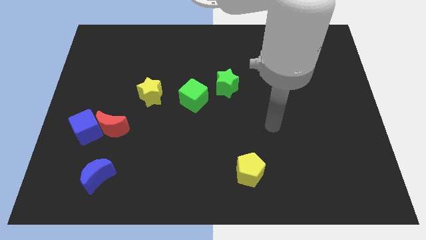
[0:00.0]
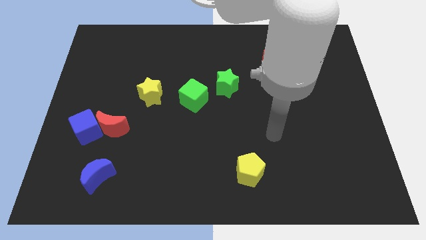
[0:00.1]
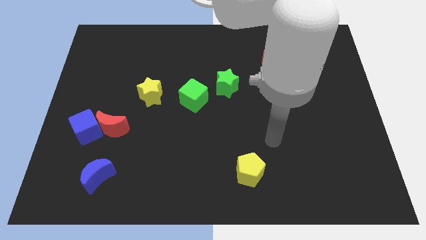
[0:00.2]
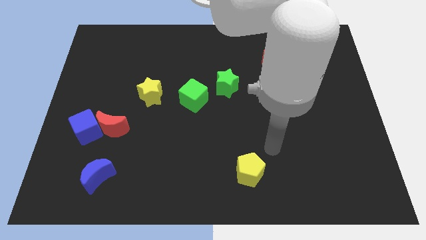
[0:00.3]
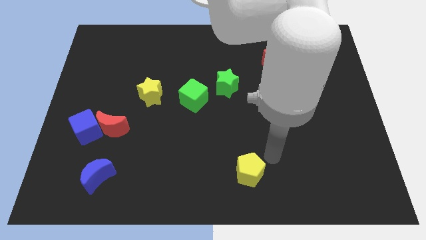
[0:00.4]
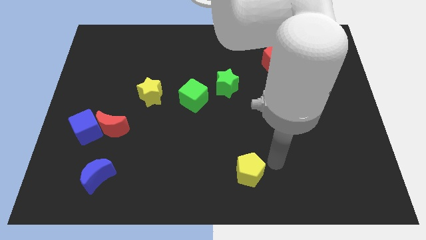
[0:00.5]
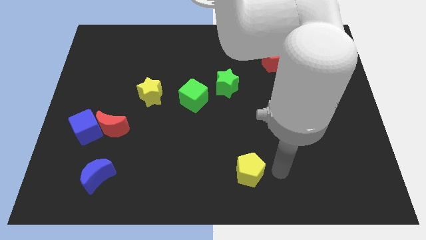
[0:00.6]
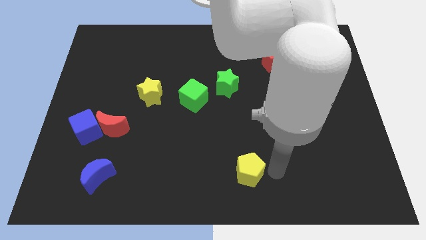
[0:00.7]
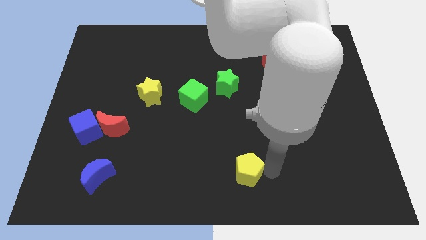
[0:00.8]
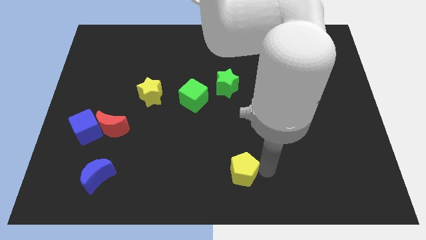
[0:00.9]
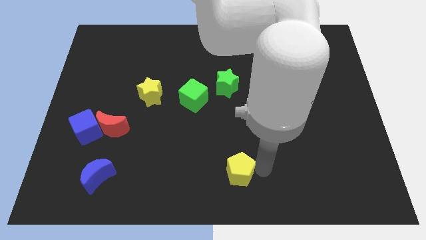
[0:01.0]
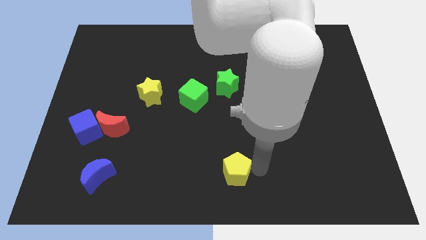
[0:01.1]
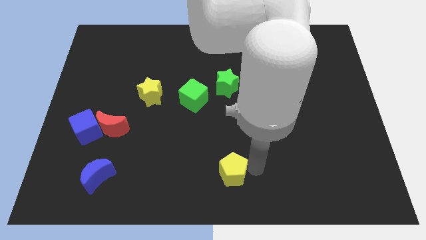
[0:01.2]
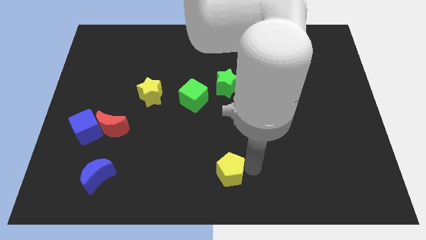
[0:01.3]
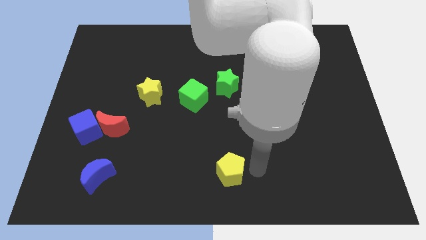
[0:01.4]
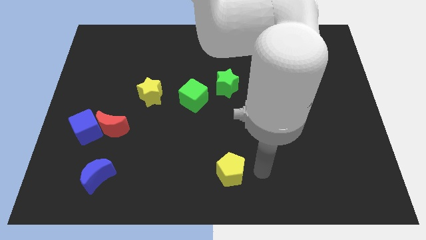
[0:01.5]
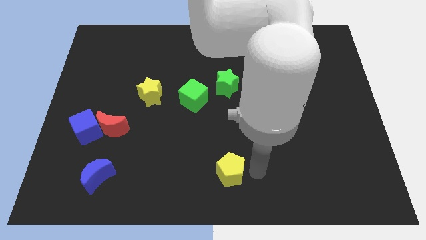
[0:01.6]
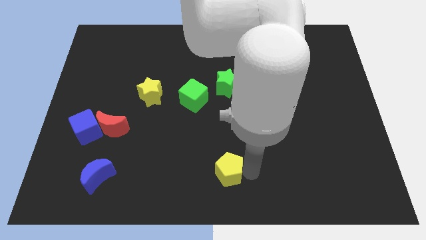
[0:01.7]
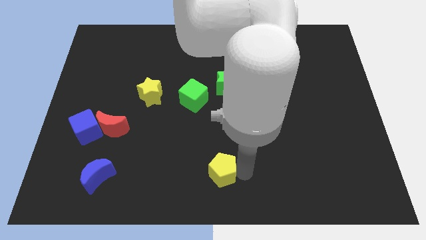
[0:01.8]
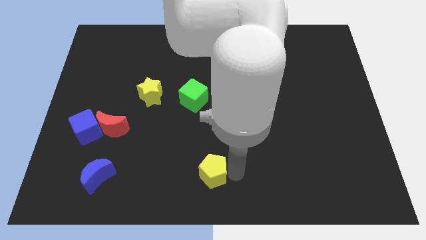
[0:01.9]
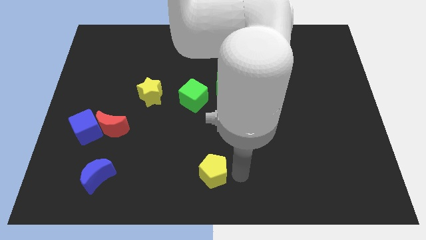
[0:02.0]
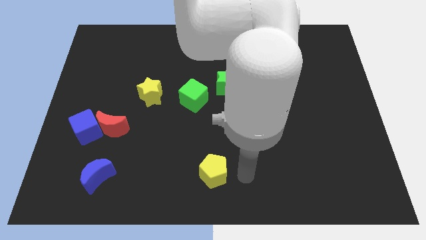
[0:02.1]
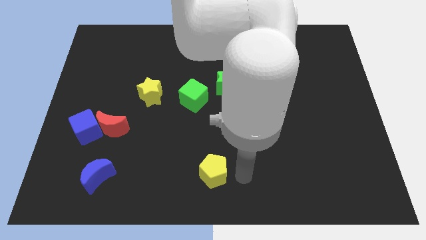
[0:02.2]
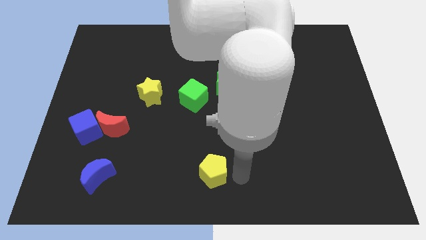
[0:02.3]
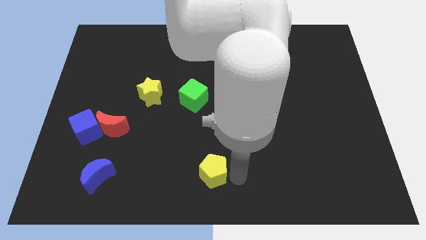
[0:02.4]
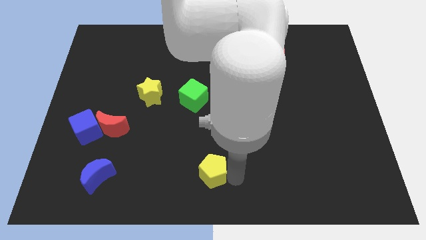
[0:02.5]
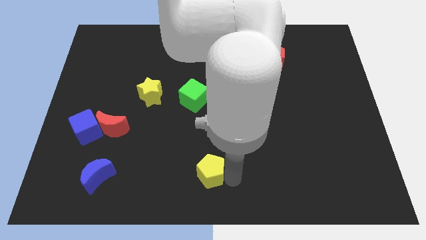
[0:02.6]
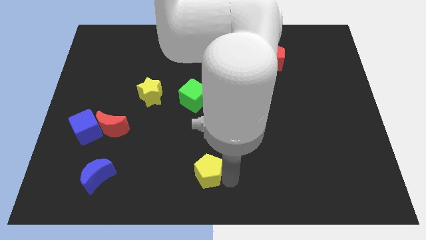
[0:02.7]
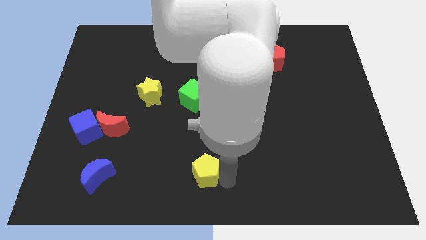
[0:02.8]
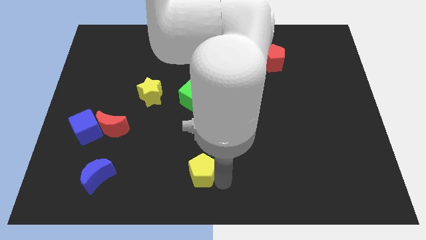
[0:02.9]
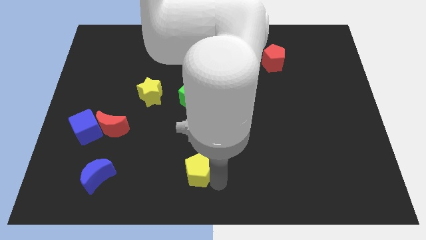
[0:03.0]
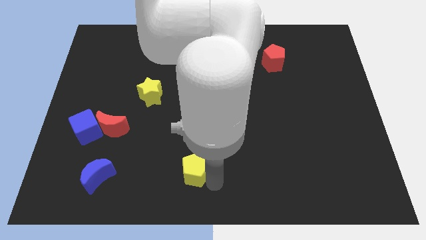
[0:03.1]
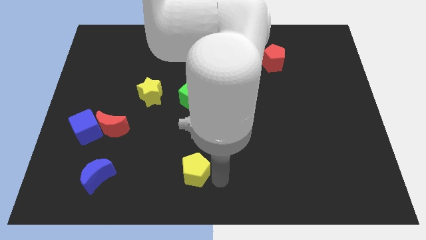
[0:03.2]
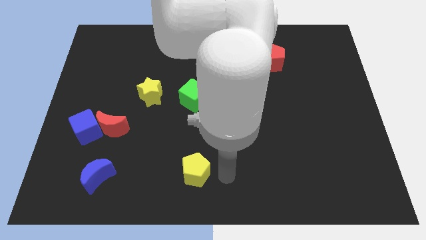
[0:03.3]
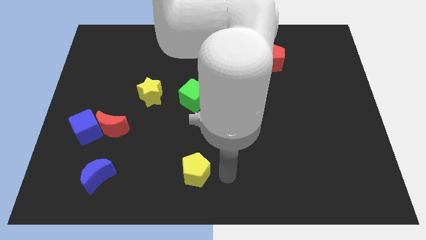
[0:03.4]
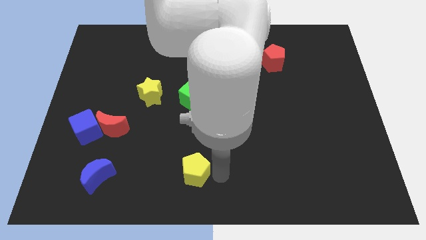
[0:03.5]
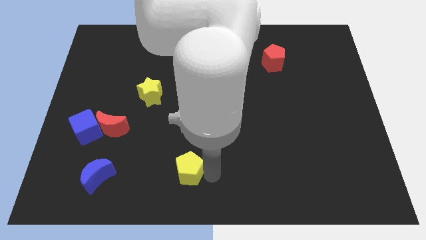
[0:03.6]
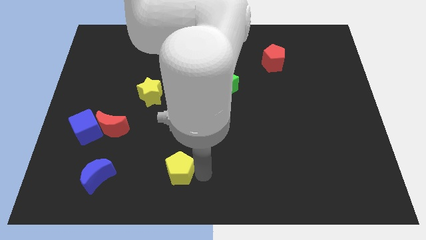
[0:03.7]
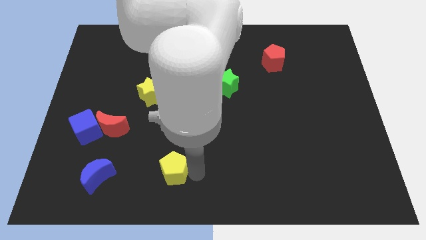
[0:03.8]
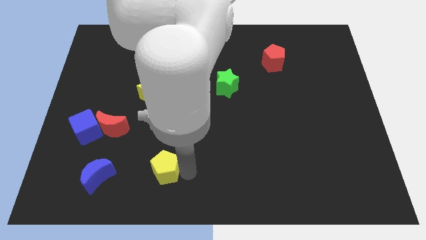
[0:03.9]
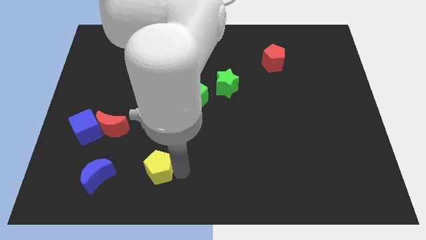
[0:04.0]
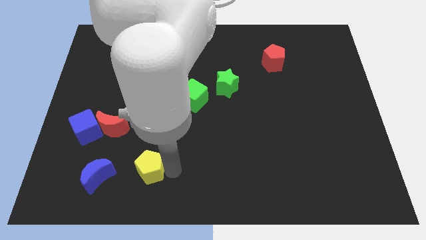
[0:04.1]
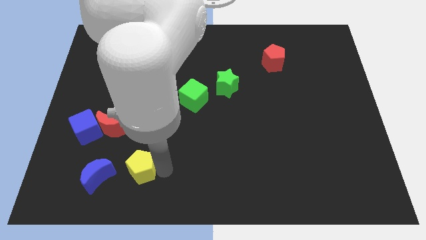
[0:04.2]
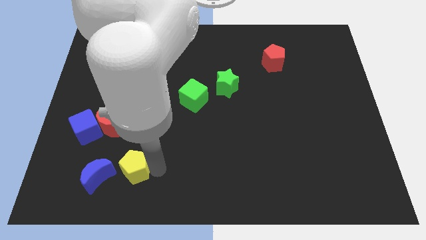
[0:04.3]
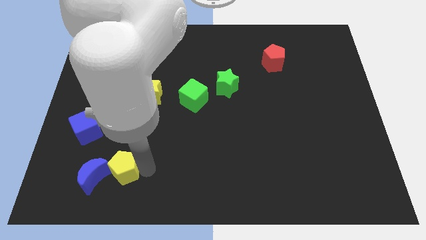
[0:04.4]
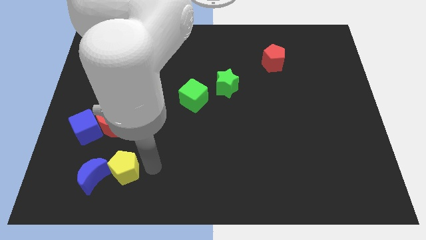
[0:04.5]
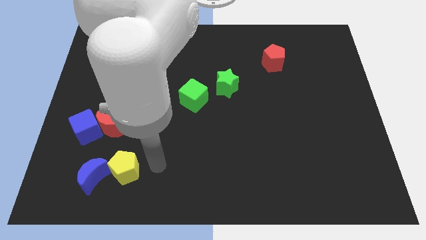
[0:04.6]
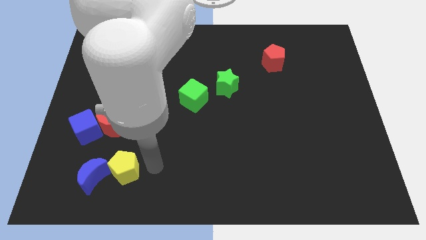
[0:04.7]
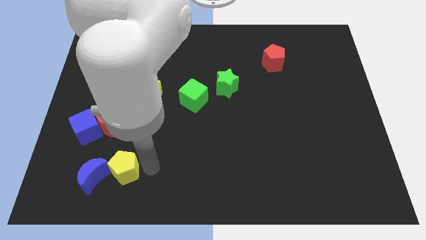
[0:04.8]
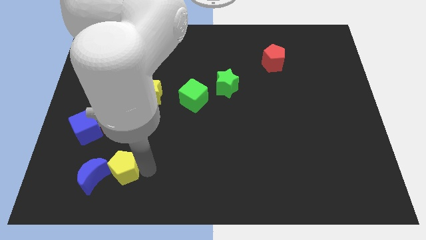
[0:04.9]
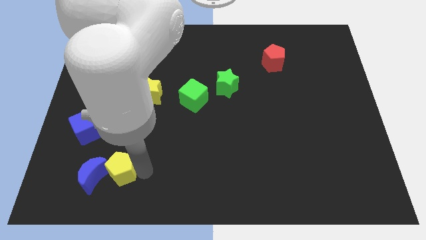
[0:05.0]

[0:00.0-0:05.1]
push the yellow pentagon close to the blue moon

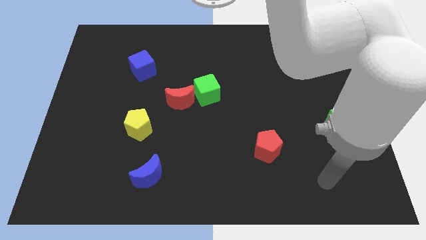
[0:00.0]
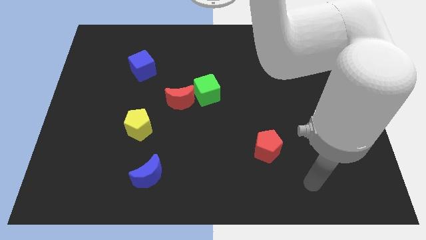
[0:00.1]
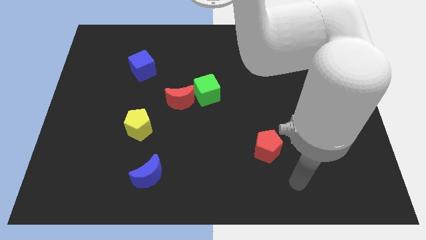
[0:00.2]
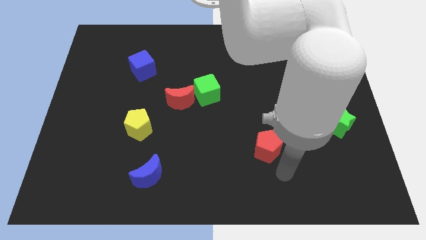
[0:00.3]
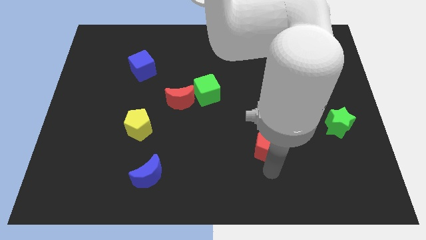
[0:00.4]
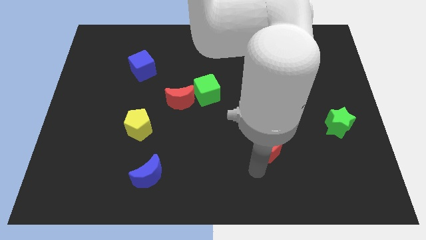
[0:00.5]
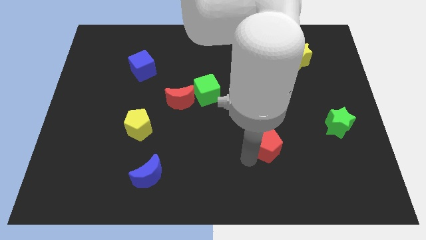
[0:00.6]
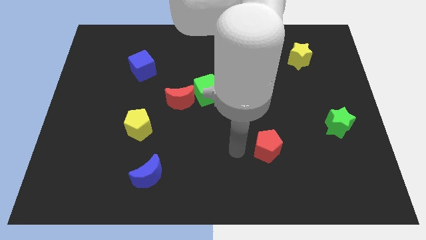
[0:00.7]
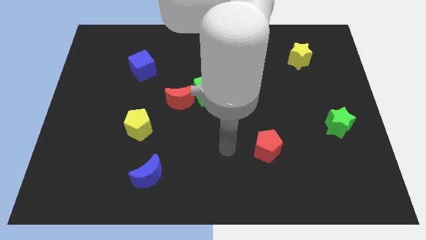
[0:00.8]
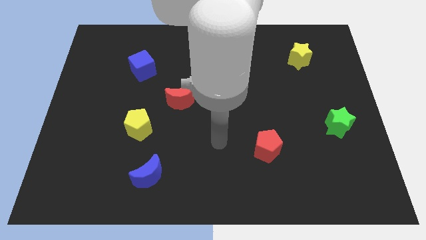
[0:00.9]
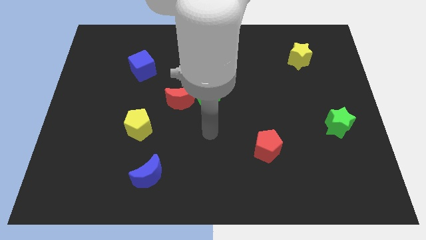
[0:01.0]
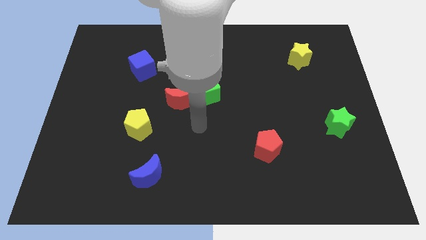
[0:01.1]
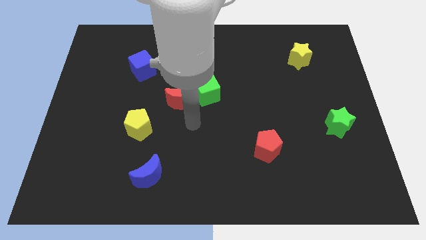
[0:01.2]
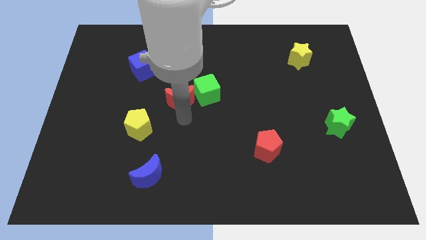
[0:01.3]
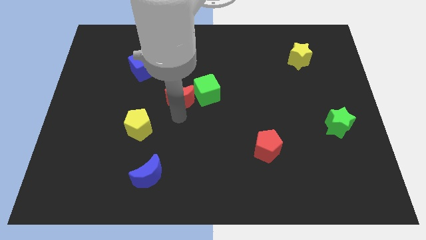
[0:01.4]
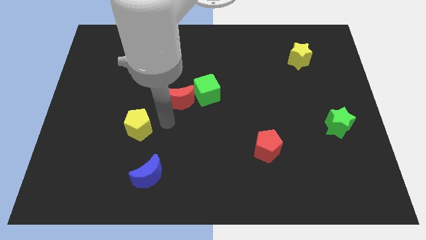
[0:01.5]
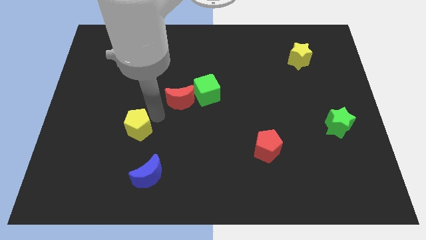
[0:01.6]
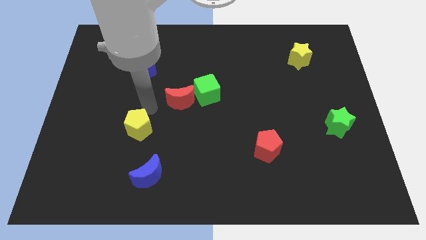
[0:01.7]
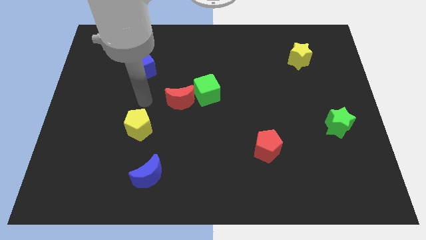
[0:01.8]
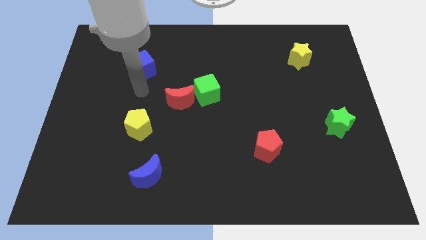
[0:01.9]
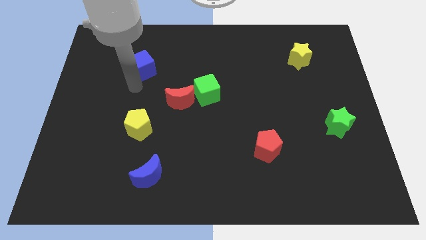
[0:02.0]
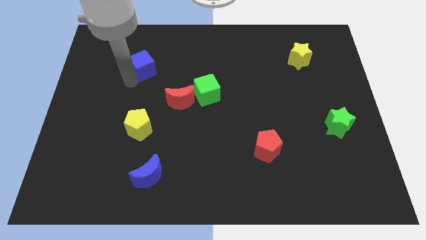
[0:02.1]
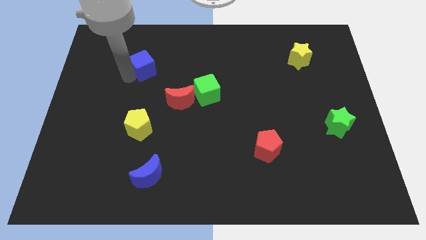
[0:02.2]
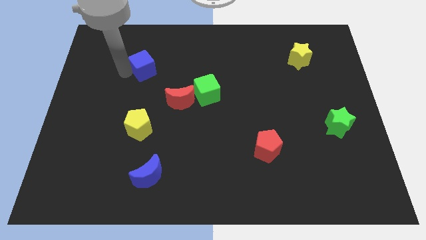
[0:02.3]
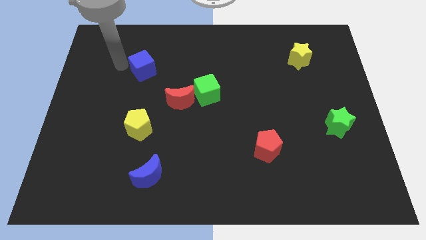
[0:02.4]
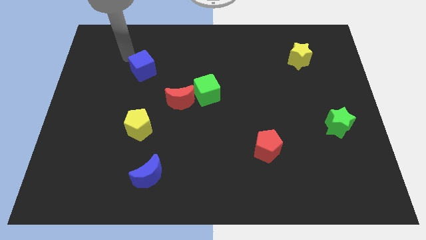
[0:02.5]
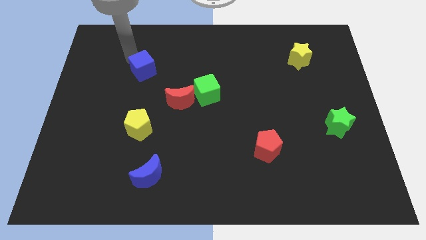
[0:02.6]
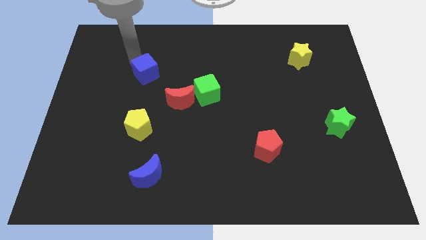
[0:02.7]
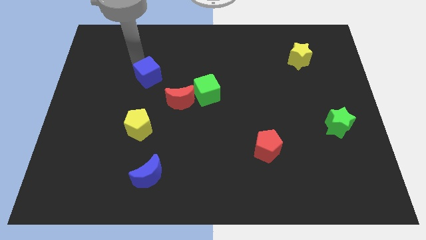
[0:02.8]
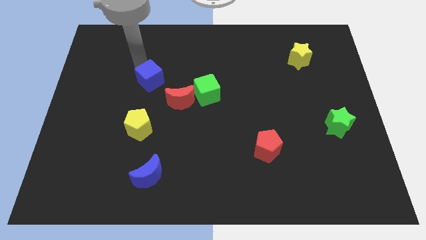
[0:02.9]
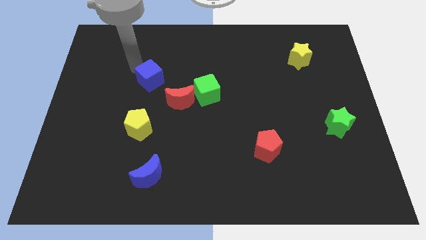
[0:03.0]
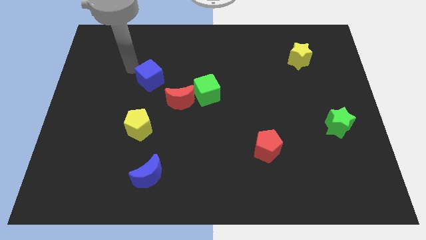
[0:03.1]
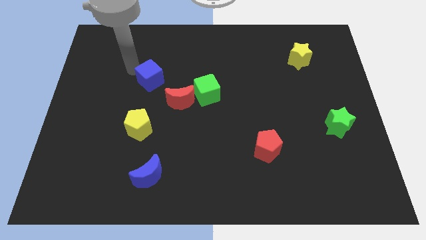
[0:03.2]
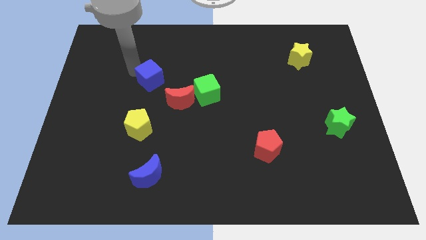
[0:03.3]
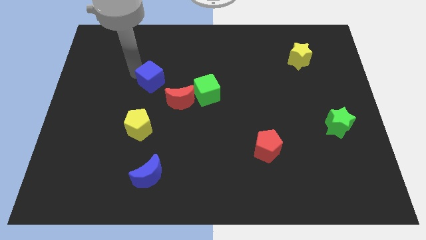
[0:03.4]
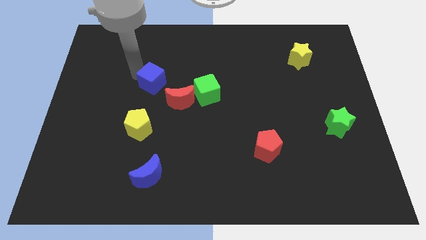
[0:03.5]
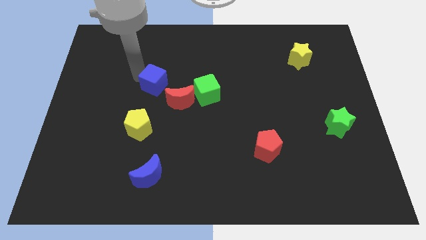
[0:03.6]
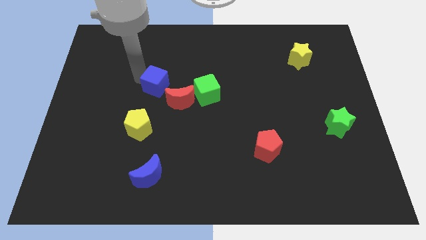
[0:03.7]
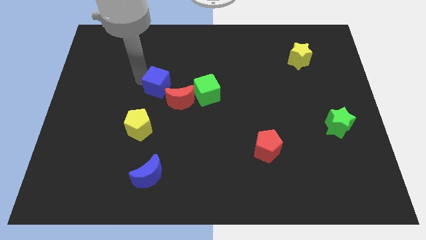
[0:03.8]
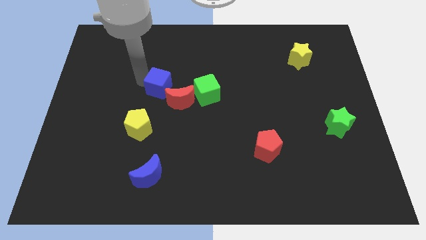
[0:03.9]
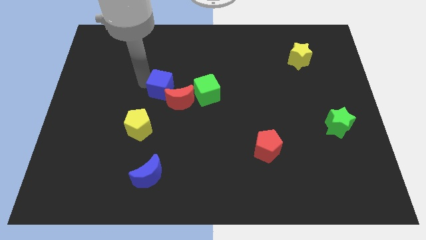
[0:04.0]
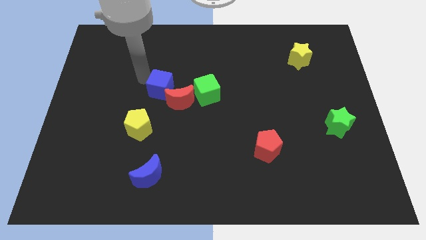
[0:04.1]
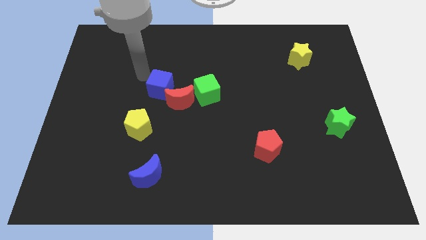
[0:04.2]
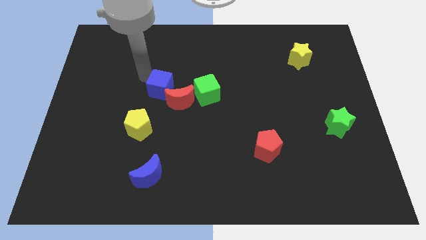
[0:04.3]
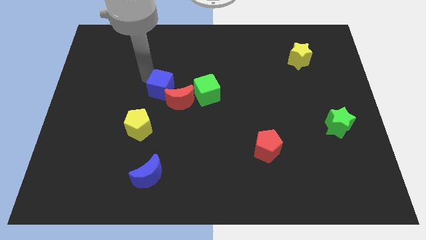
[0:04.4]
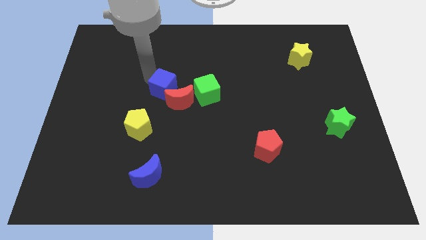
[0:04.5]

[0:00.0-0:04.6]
push the blue cube to the red moon
